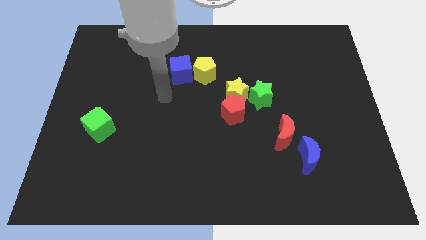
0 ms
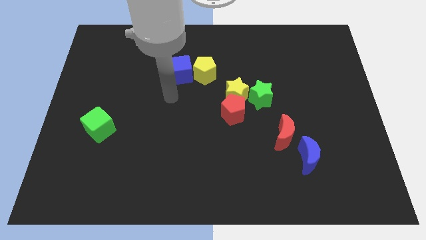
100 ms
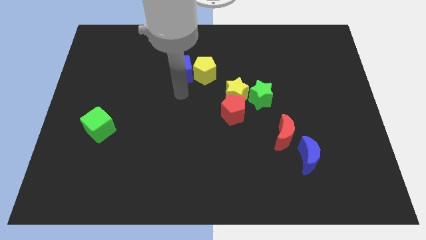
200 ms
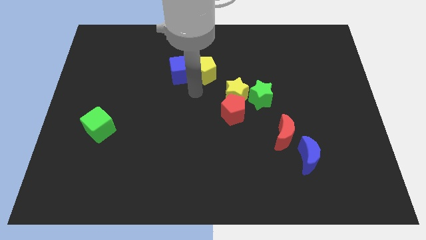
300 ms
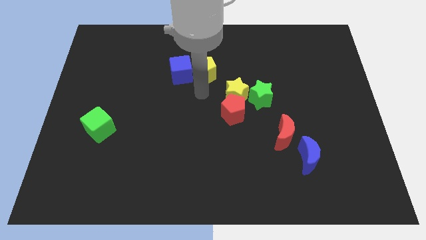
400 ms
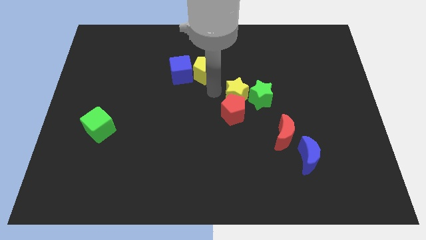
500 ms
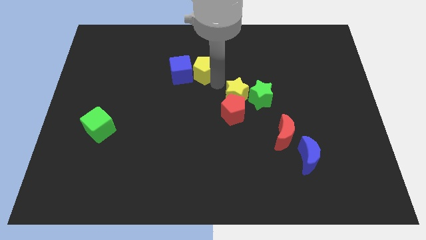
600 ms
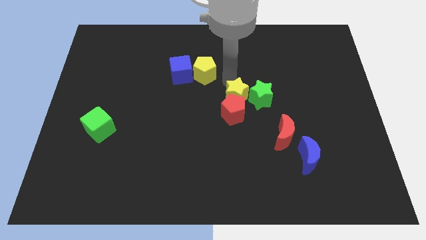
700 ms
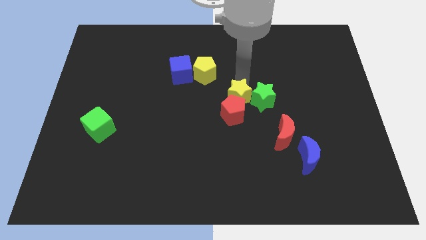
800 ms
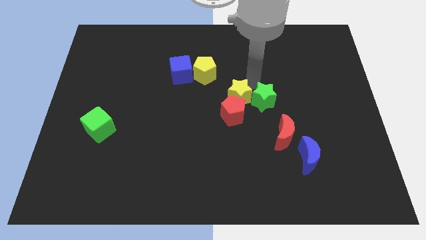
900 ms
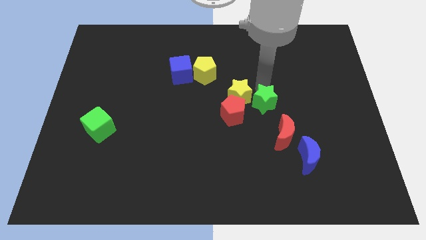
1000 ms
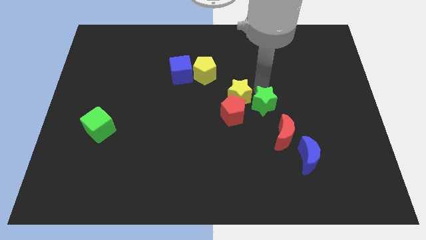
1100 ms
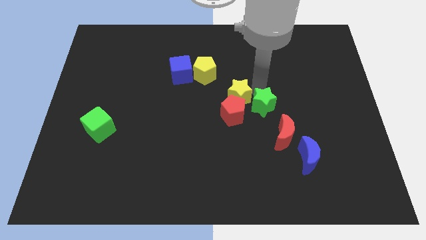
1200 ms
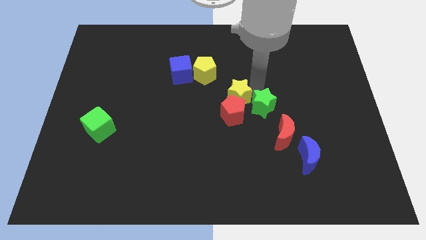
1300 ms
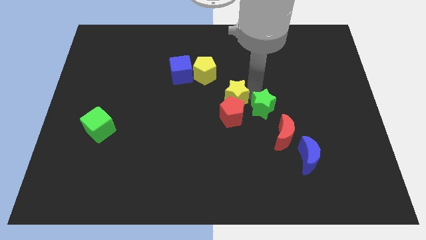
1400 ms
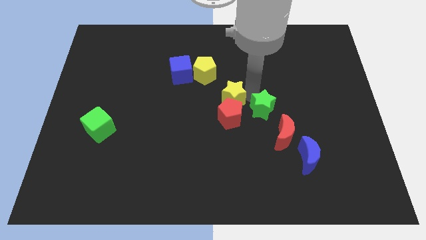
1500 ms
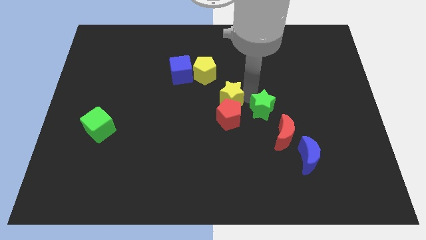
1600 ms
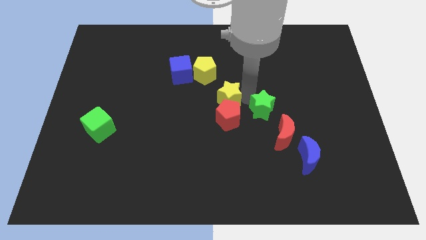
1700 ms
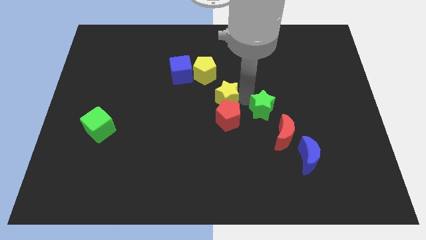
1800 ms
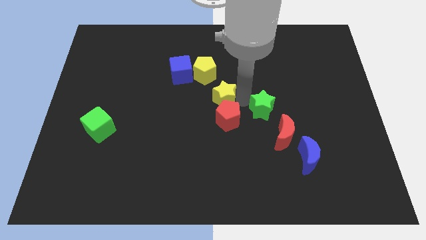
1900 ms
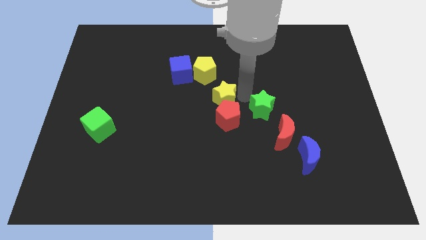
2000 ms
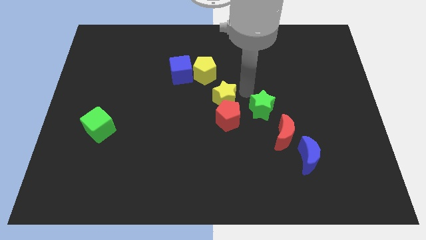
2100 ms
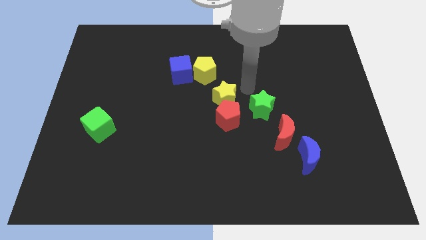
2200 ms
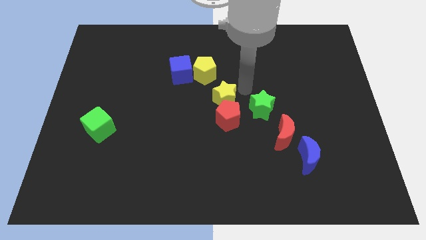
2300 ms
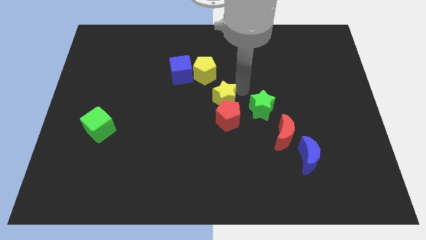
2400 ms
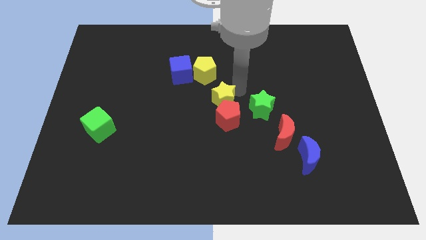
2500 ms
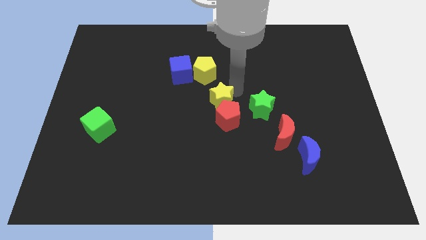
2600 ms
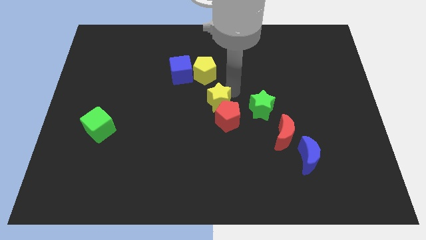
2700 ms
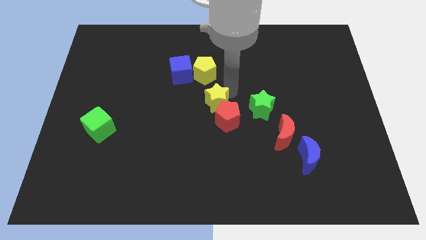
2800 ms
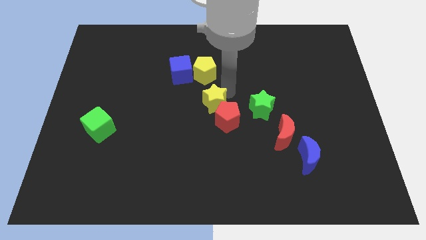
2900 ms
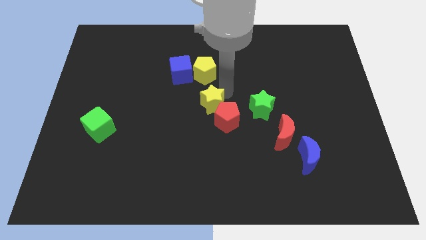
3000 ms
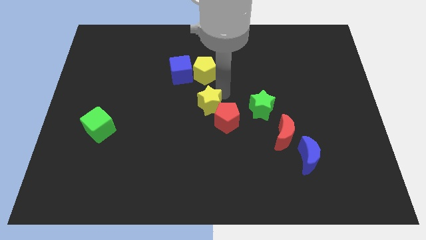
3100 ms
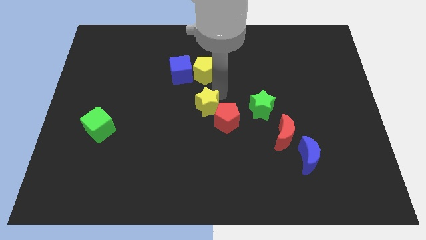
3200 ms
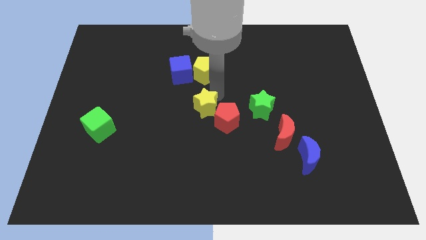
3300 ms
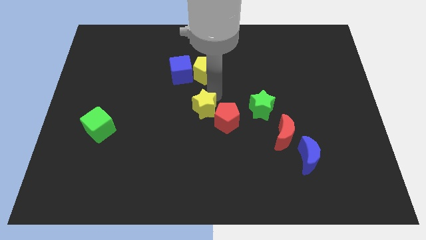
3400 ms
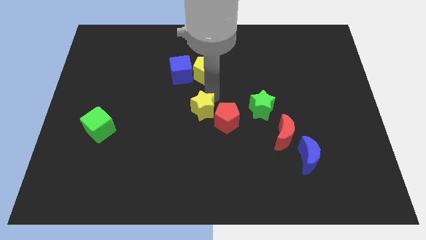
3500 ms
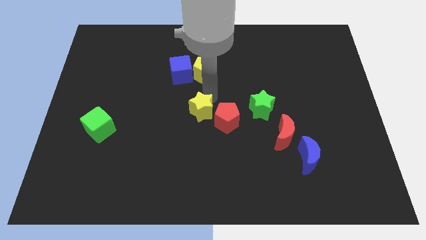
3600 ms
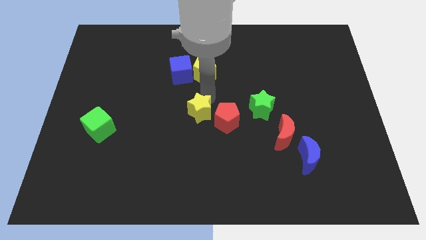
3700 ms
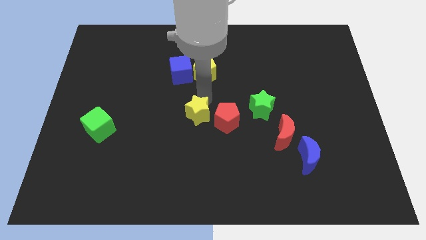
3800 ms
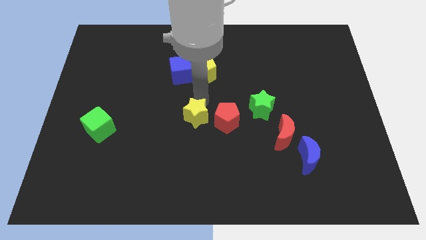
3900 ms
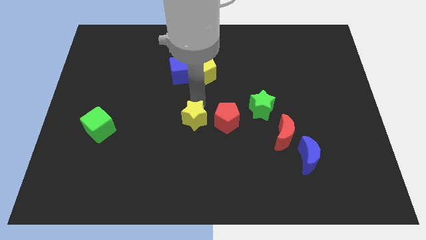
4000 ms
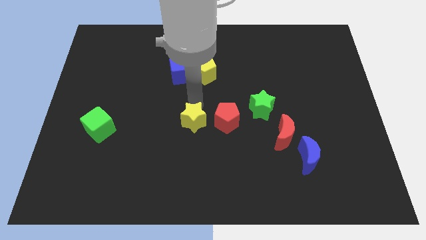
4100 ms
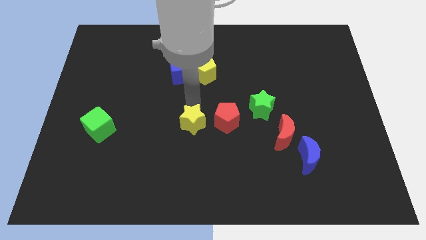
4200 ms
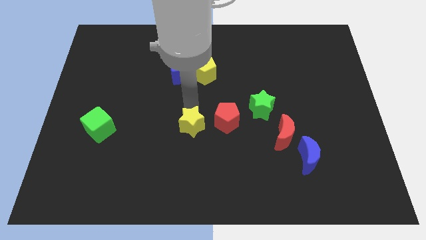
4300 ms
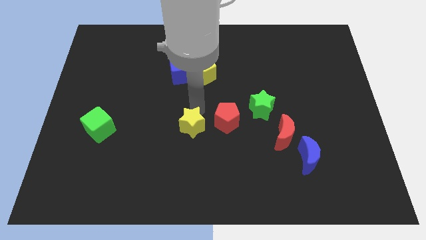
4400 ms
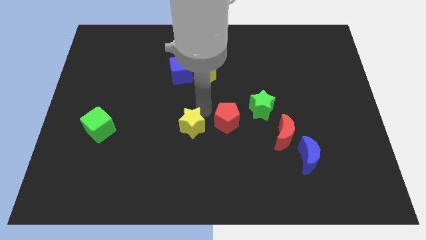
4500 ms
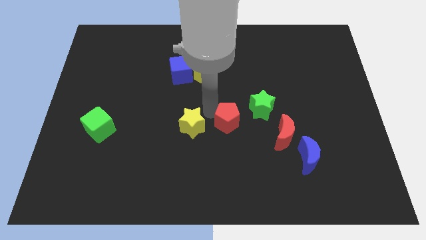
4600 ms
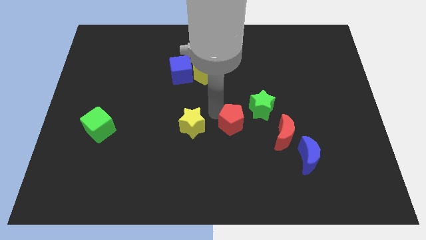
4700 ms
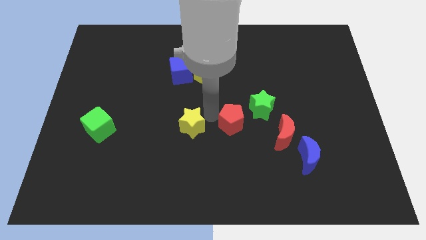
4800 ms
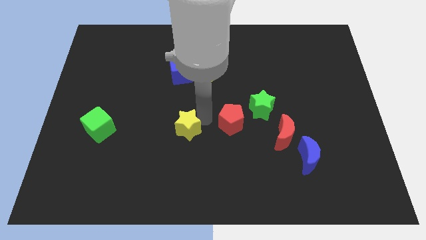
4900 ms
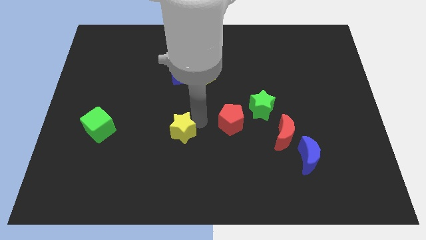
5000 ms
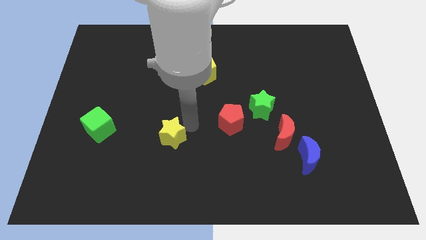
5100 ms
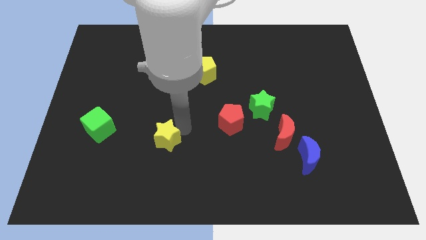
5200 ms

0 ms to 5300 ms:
move the yellow star downwards and to the left diagonally

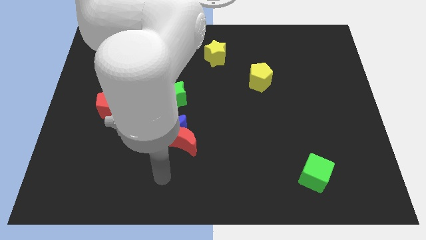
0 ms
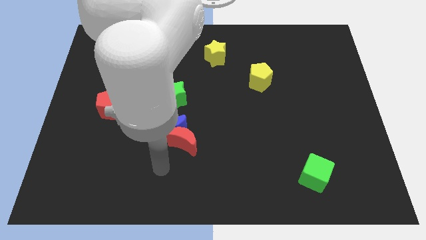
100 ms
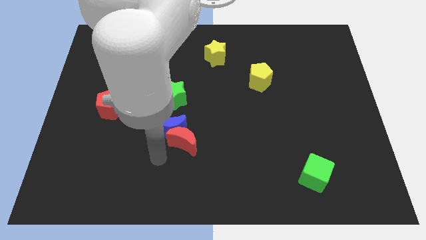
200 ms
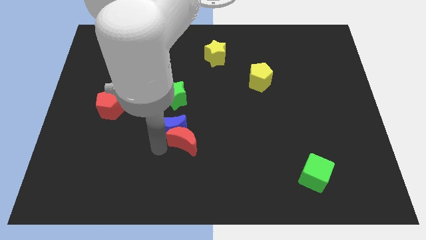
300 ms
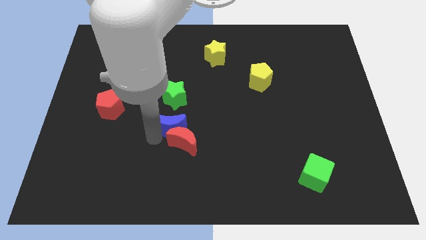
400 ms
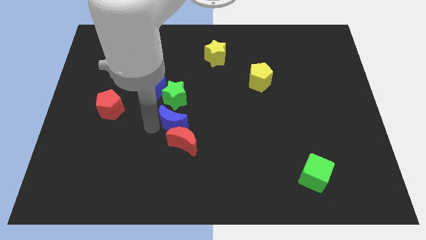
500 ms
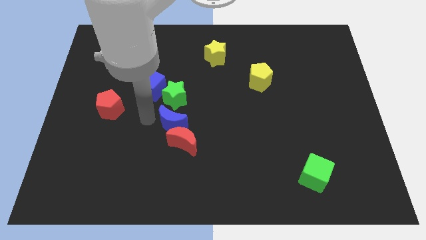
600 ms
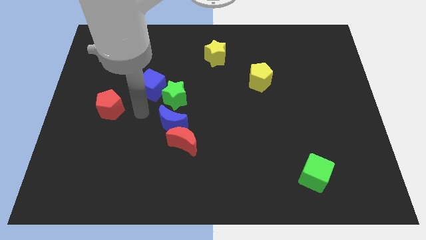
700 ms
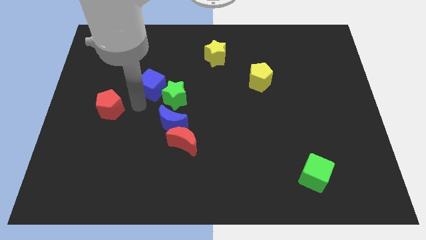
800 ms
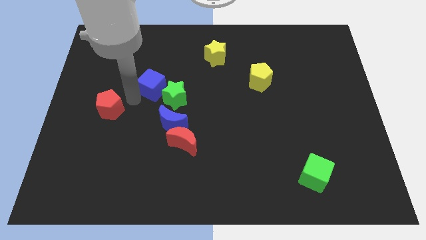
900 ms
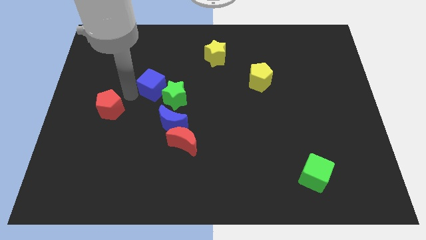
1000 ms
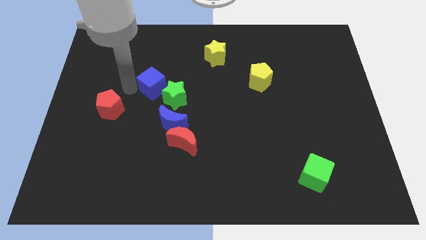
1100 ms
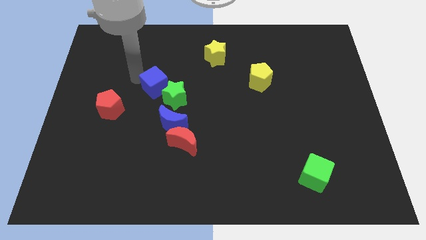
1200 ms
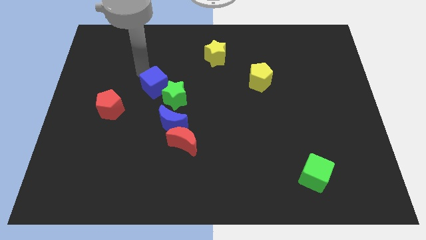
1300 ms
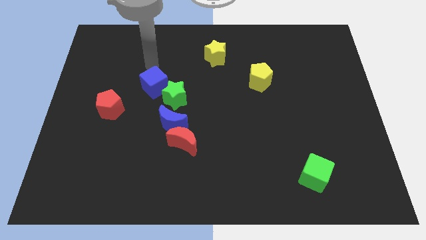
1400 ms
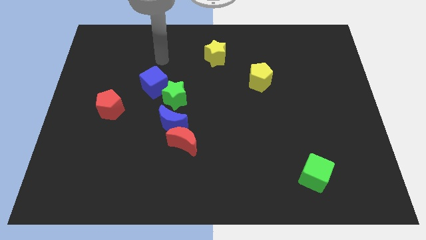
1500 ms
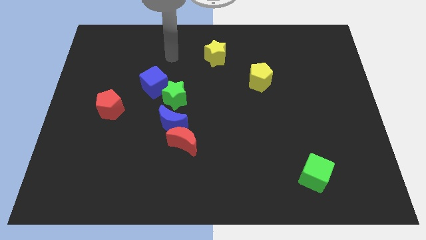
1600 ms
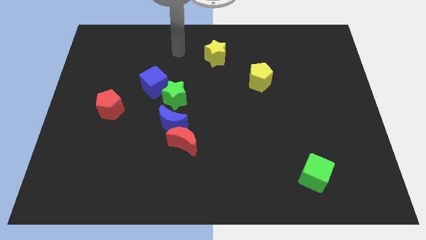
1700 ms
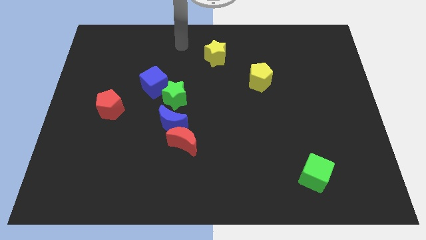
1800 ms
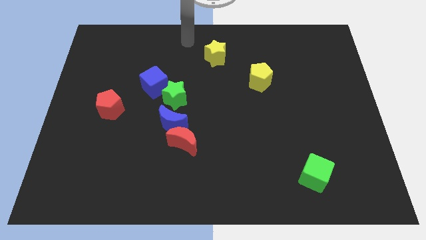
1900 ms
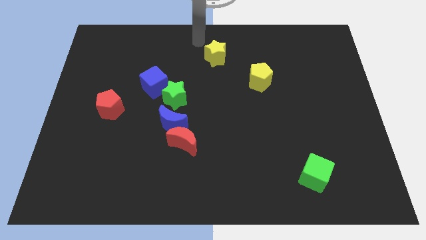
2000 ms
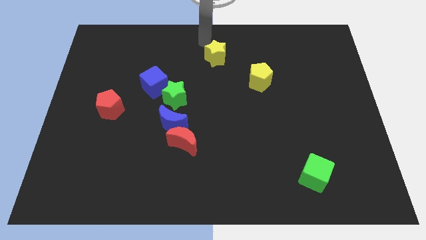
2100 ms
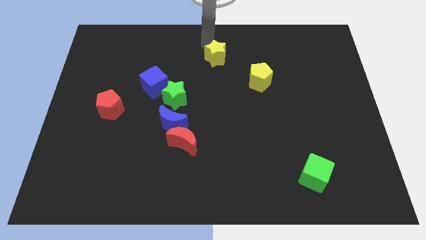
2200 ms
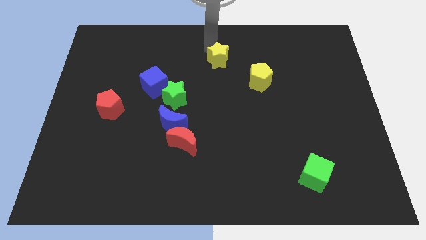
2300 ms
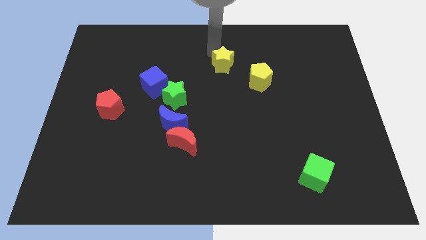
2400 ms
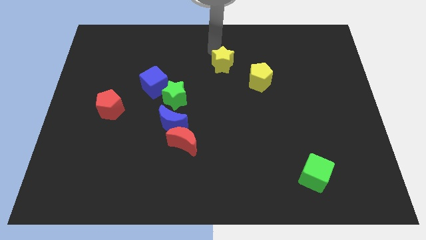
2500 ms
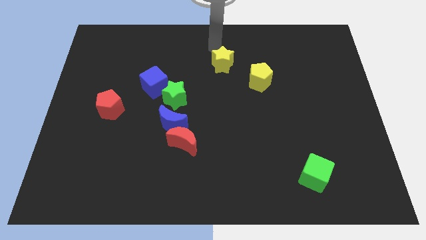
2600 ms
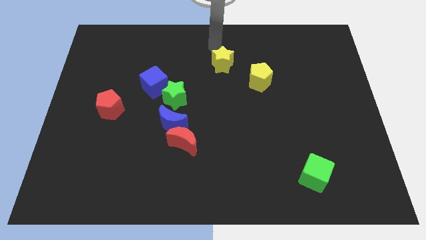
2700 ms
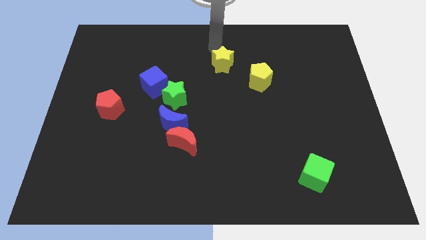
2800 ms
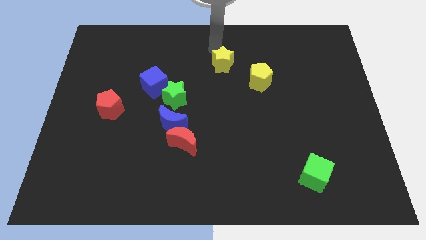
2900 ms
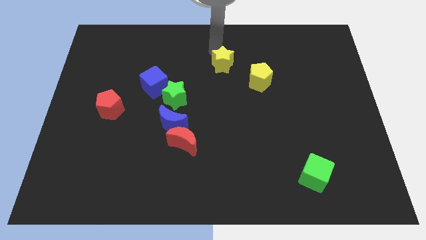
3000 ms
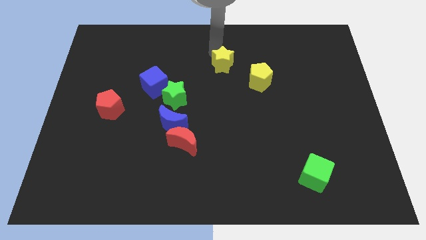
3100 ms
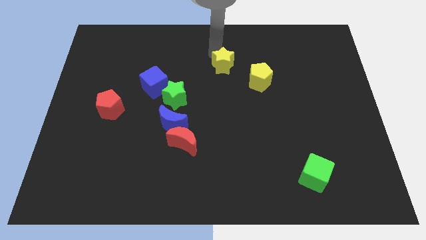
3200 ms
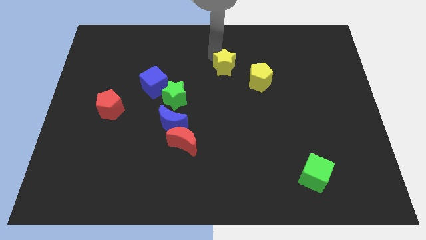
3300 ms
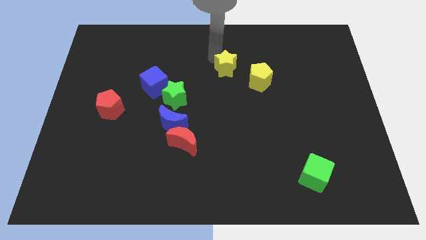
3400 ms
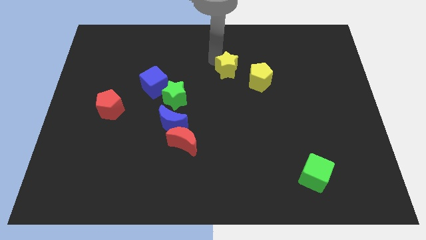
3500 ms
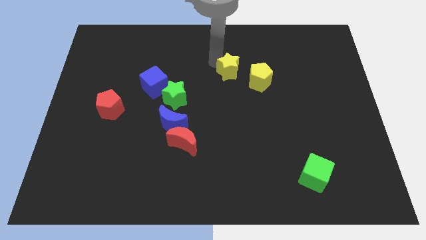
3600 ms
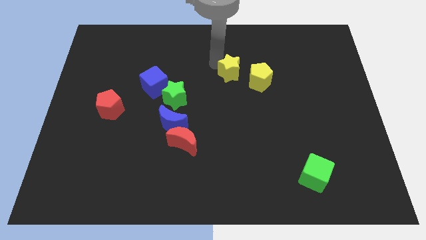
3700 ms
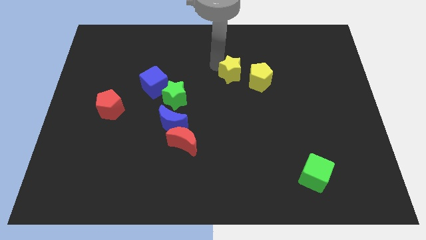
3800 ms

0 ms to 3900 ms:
push the yellow star downwards and then to the right slightly
